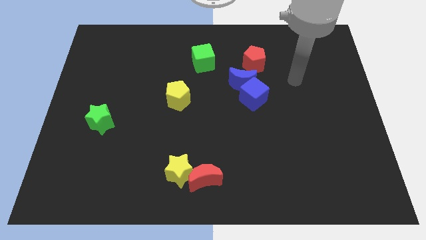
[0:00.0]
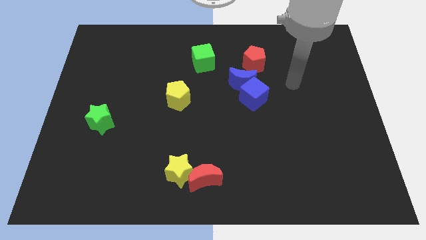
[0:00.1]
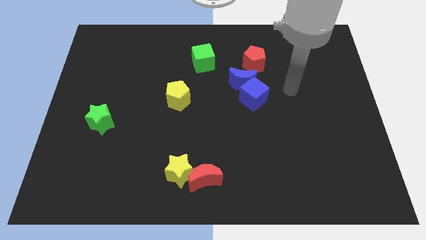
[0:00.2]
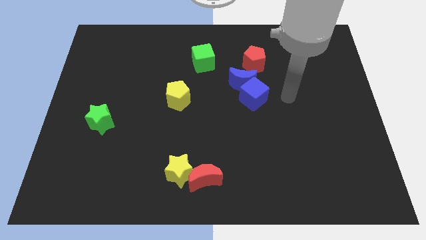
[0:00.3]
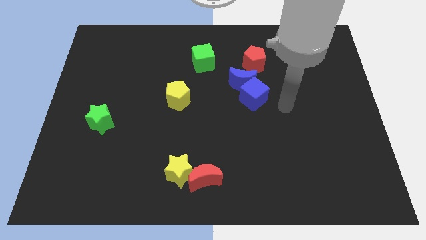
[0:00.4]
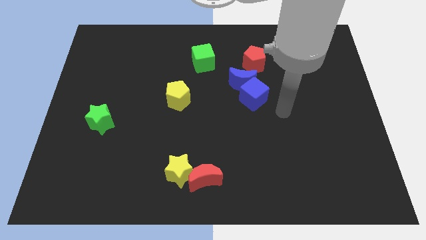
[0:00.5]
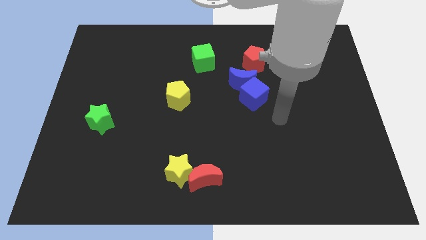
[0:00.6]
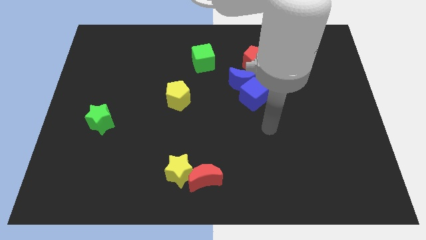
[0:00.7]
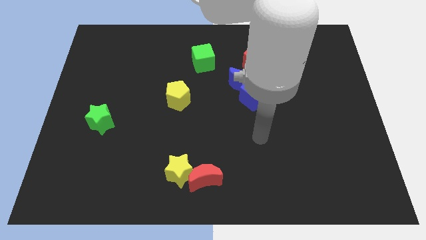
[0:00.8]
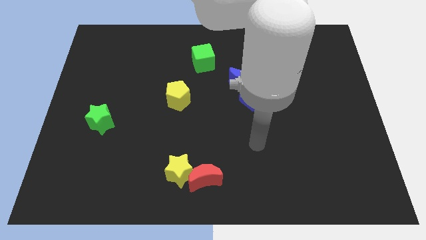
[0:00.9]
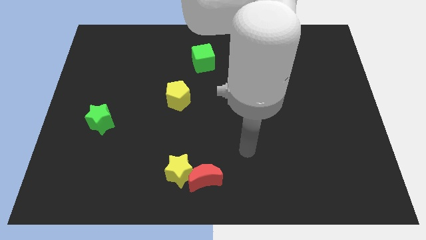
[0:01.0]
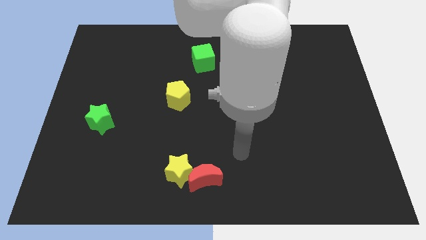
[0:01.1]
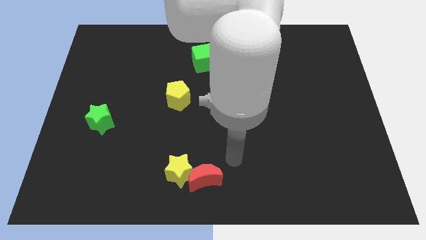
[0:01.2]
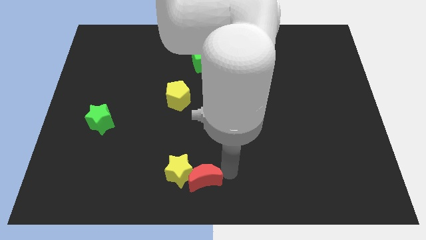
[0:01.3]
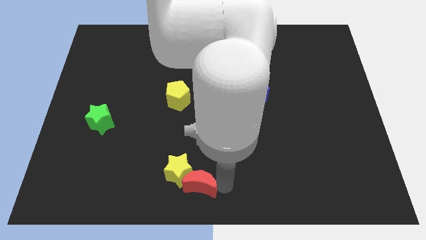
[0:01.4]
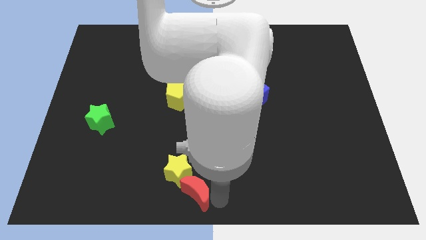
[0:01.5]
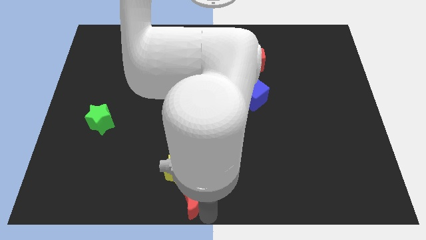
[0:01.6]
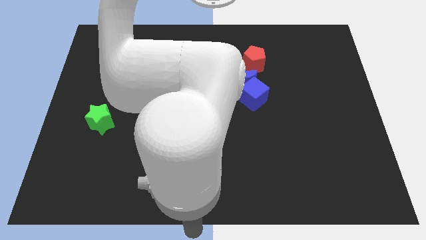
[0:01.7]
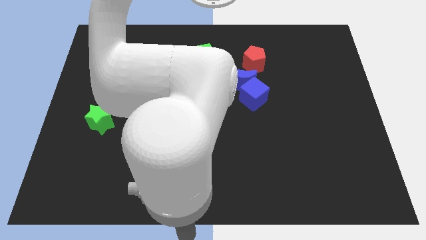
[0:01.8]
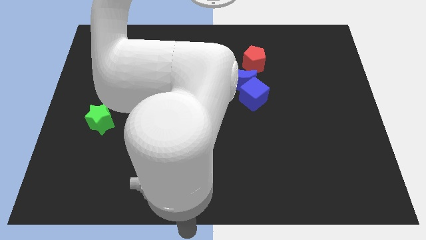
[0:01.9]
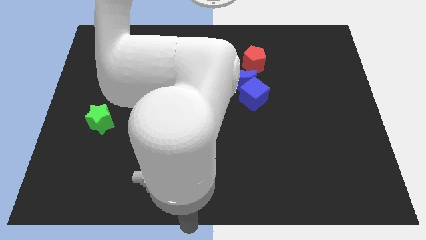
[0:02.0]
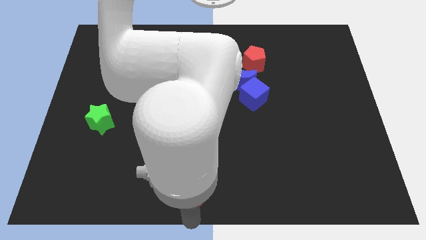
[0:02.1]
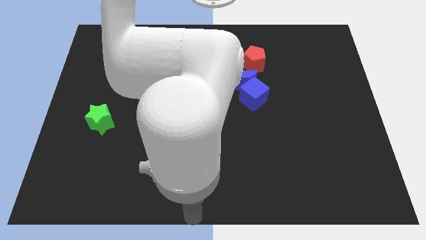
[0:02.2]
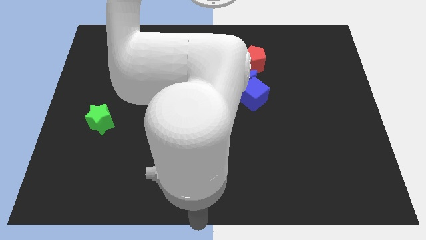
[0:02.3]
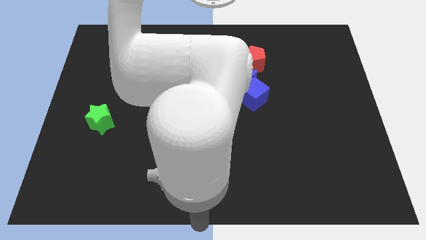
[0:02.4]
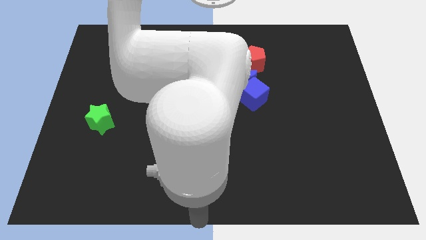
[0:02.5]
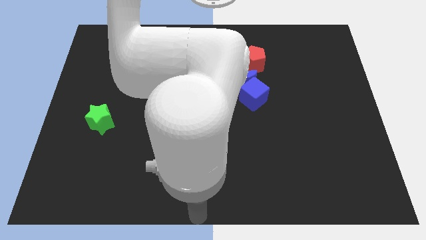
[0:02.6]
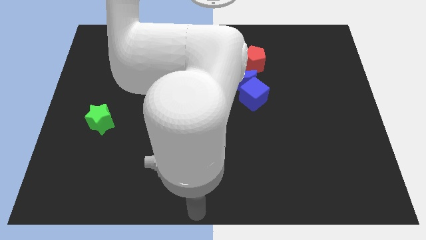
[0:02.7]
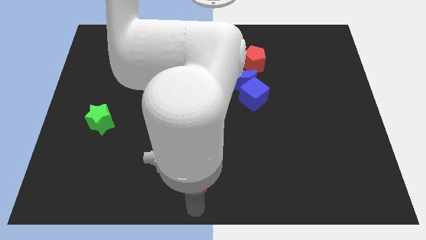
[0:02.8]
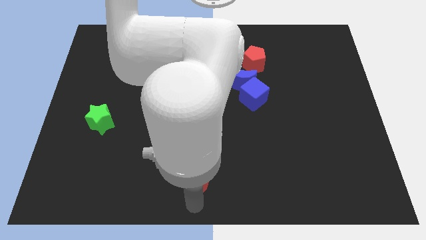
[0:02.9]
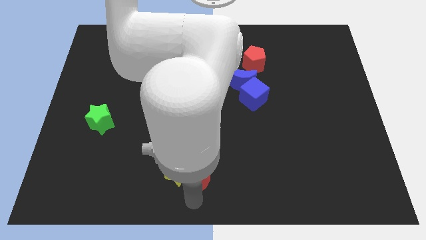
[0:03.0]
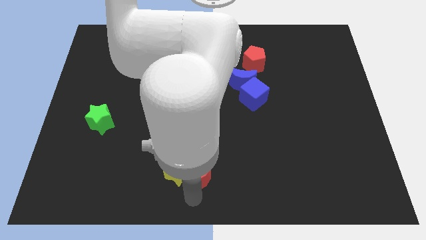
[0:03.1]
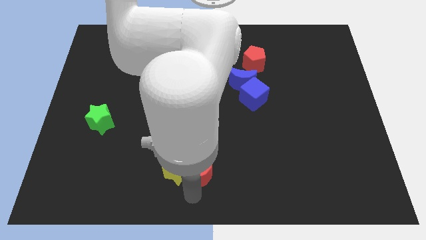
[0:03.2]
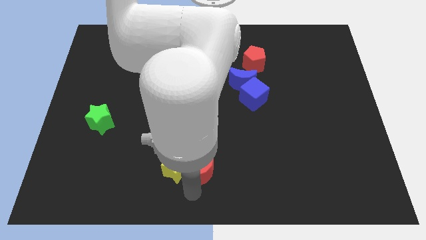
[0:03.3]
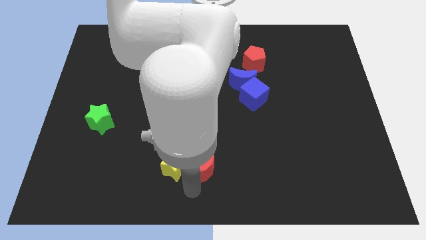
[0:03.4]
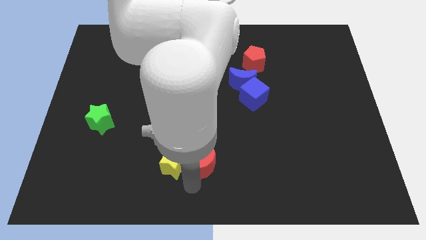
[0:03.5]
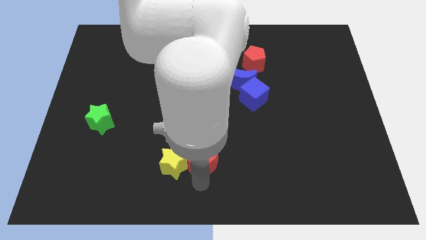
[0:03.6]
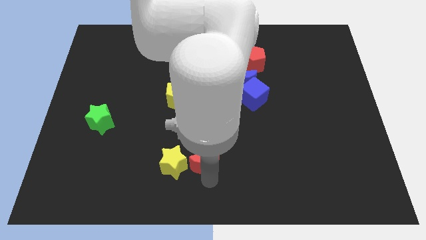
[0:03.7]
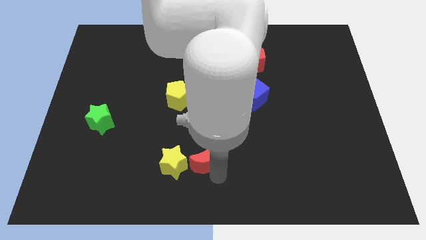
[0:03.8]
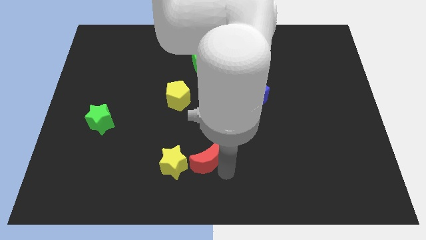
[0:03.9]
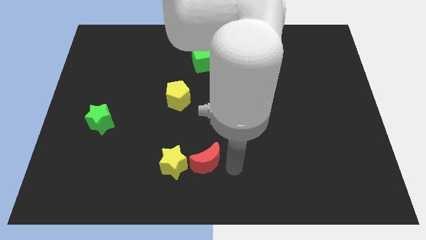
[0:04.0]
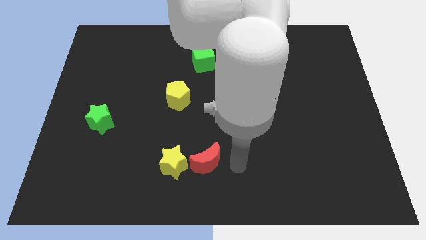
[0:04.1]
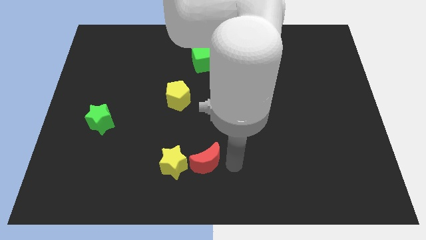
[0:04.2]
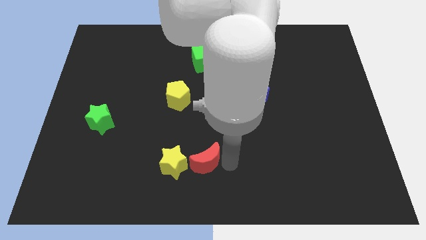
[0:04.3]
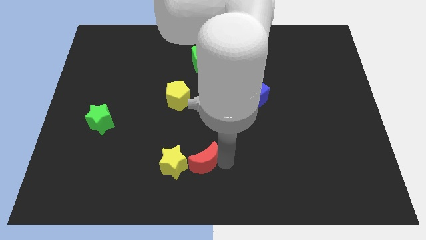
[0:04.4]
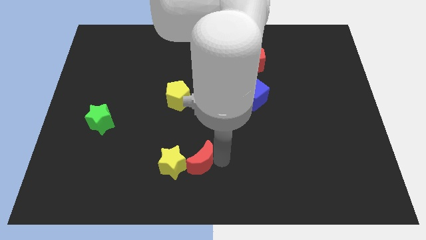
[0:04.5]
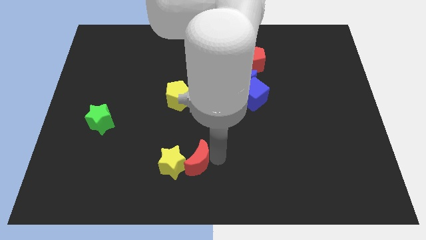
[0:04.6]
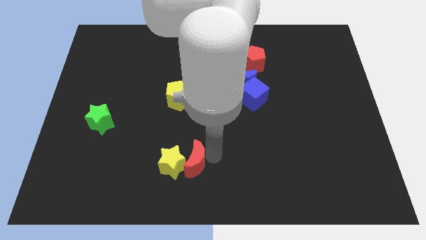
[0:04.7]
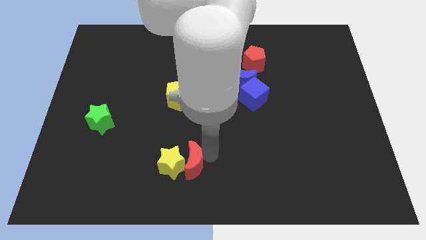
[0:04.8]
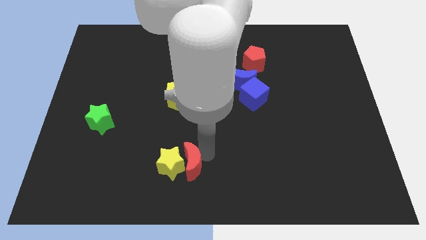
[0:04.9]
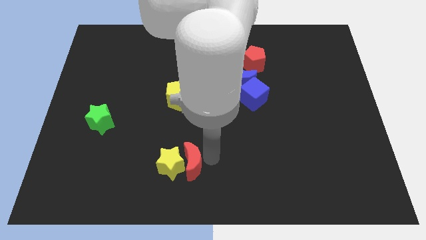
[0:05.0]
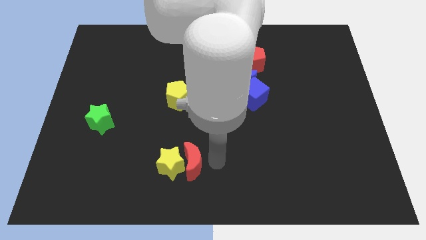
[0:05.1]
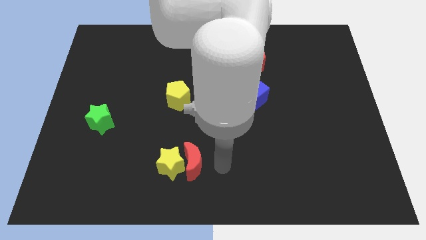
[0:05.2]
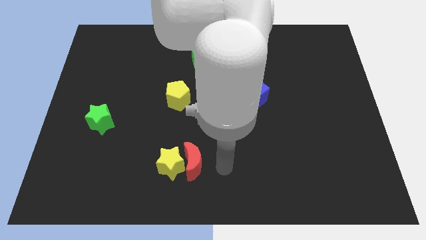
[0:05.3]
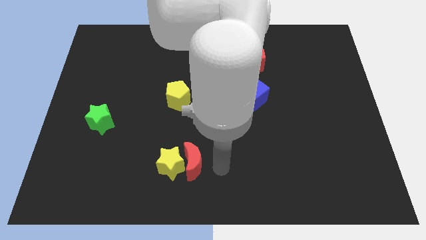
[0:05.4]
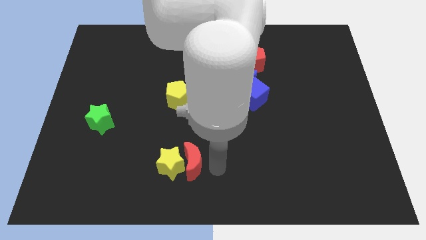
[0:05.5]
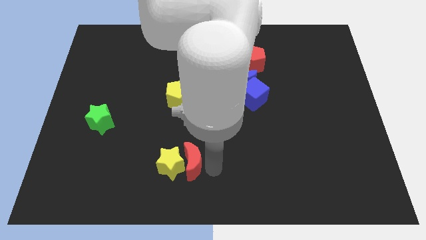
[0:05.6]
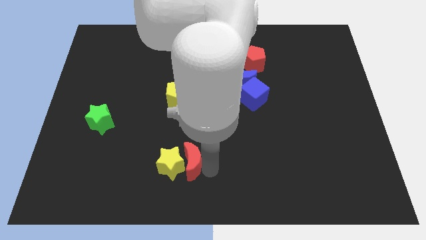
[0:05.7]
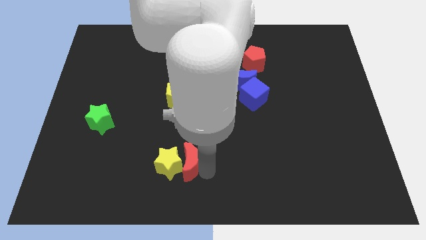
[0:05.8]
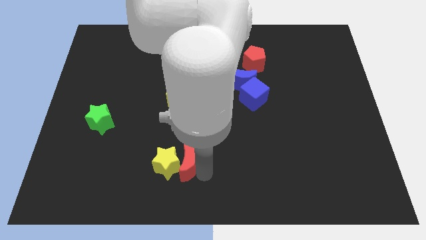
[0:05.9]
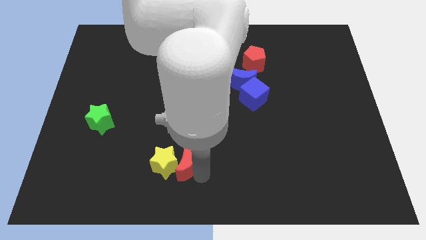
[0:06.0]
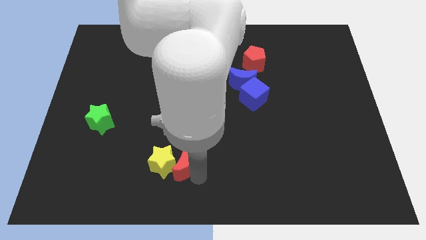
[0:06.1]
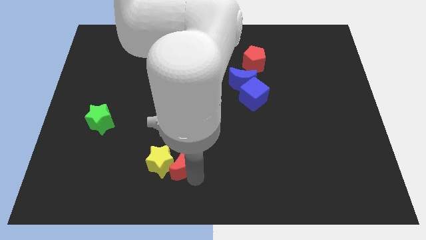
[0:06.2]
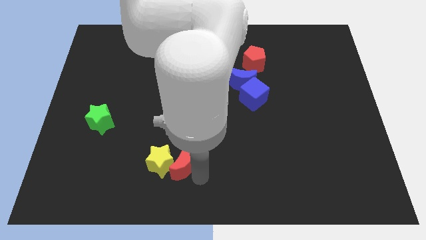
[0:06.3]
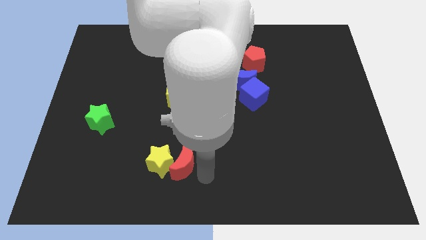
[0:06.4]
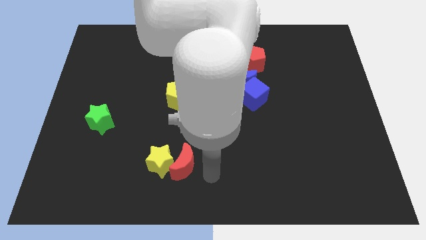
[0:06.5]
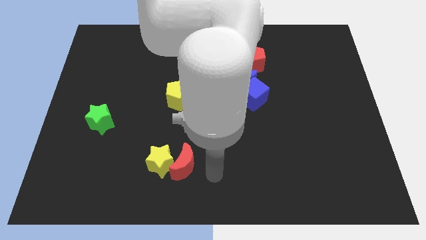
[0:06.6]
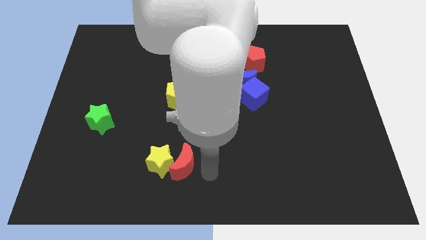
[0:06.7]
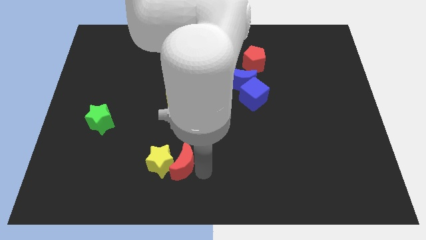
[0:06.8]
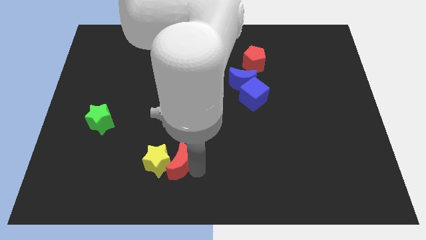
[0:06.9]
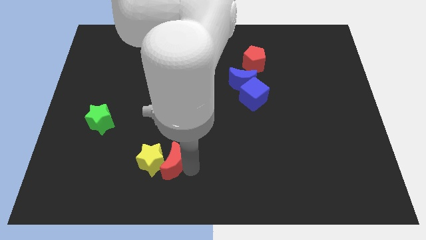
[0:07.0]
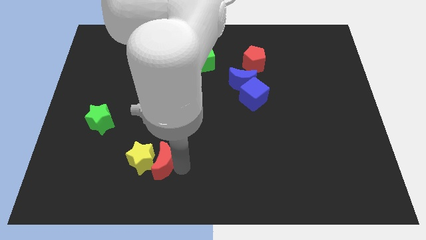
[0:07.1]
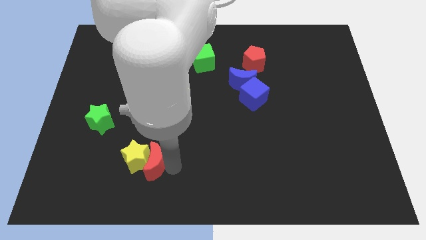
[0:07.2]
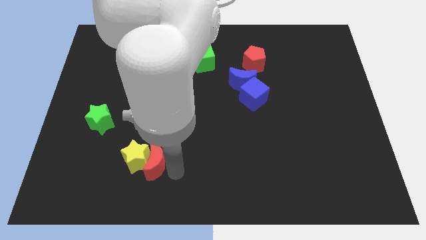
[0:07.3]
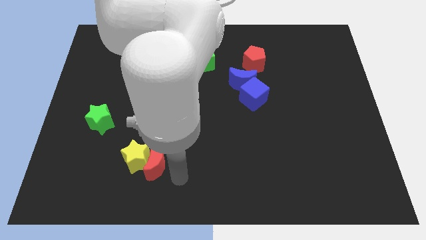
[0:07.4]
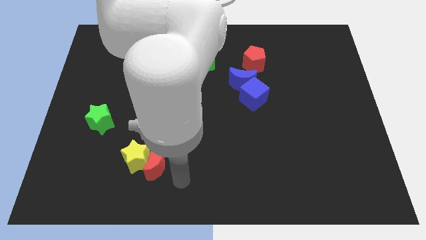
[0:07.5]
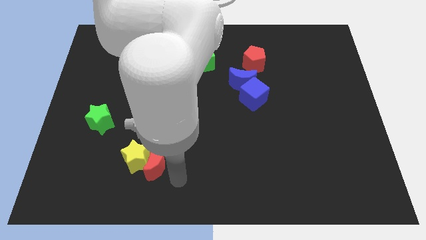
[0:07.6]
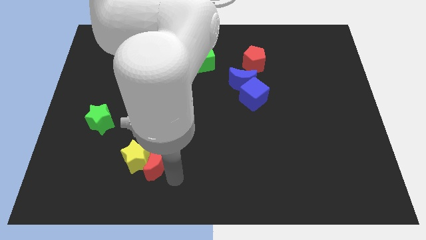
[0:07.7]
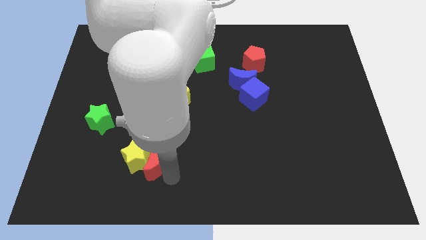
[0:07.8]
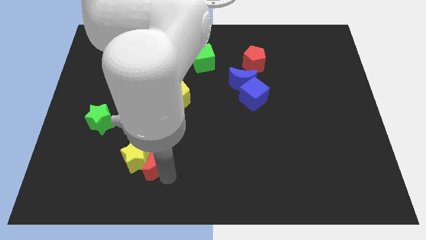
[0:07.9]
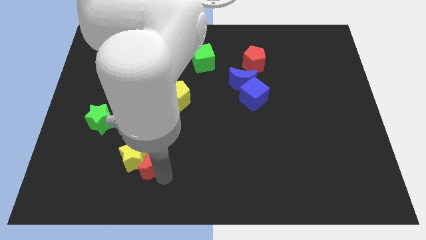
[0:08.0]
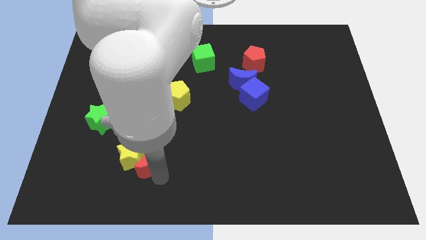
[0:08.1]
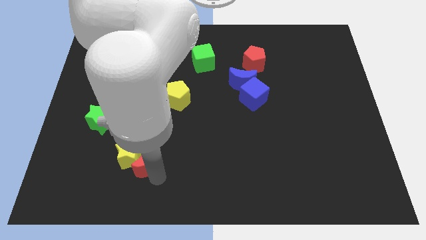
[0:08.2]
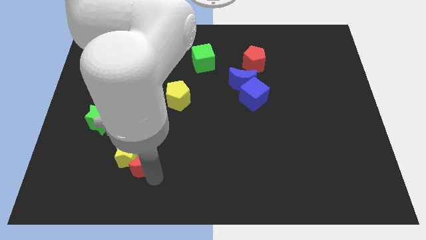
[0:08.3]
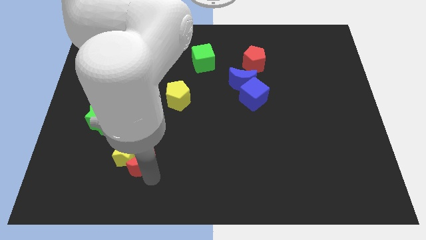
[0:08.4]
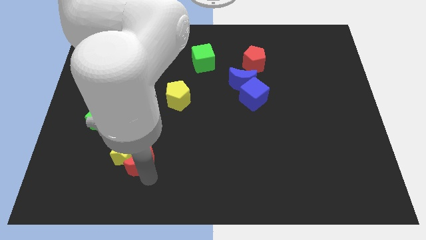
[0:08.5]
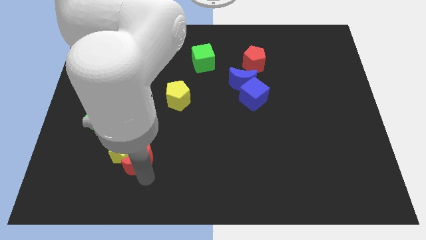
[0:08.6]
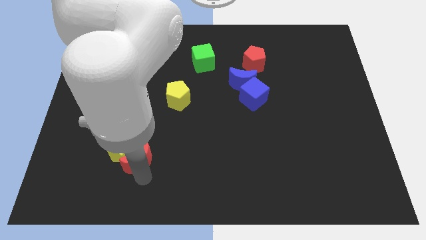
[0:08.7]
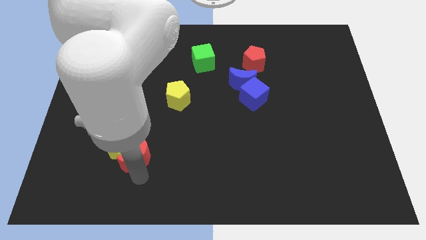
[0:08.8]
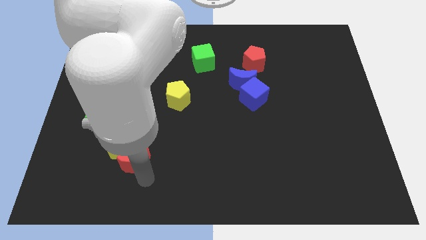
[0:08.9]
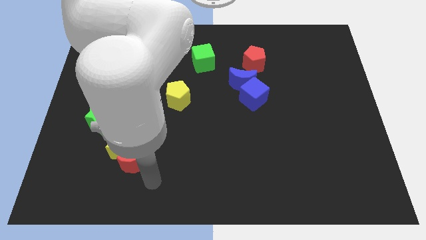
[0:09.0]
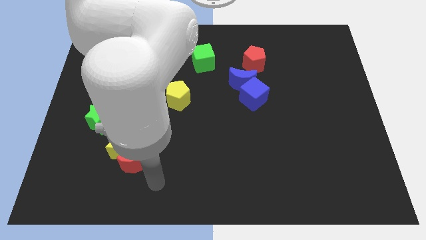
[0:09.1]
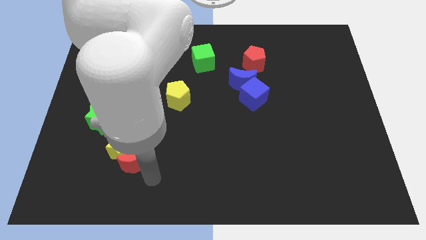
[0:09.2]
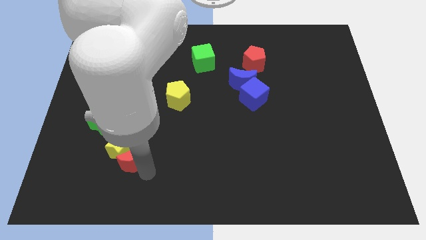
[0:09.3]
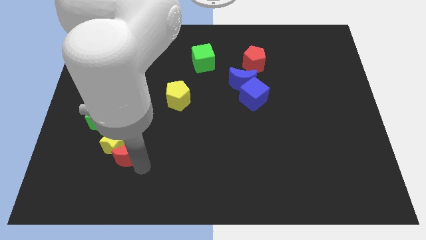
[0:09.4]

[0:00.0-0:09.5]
slide the red moon to the bottom right of the green star
